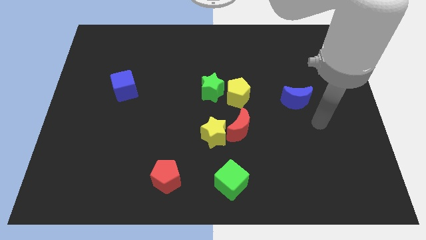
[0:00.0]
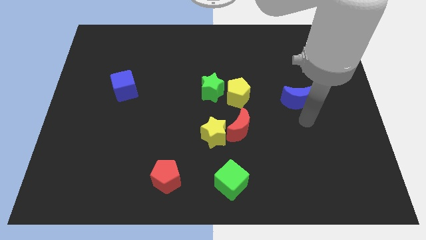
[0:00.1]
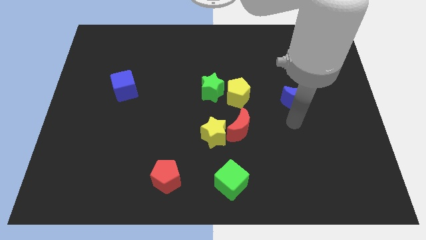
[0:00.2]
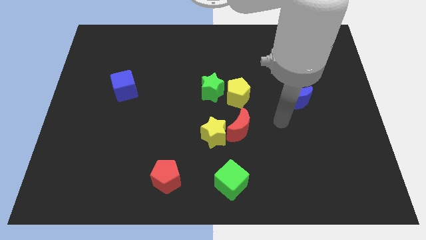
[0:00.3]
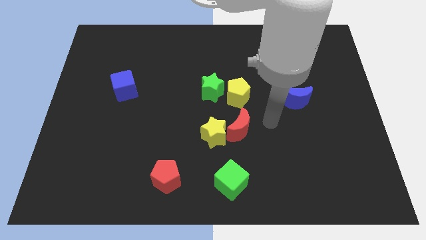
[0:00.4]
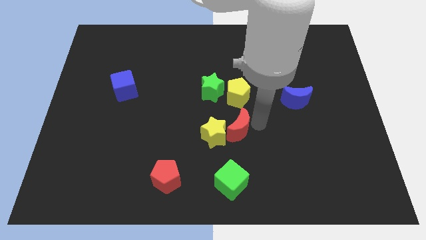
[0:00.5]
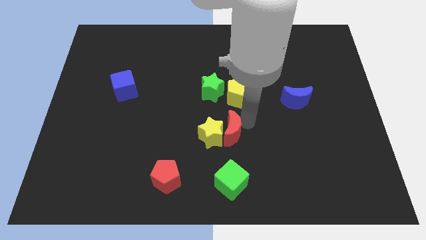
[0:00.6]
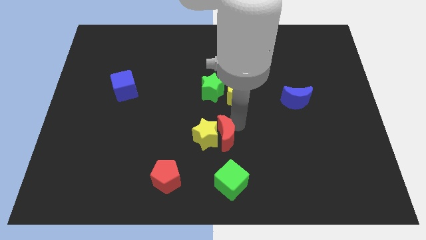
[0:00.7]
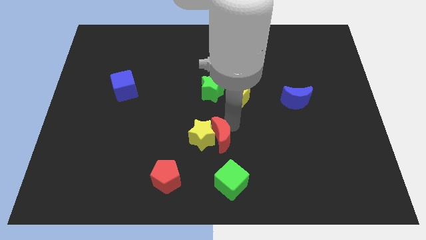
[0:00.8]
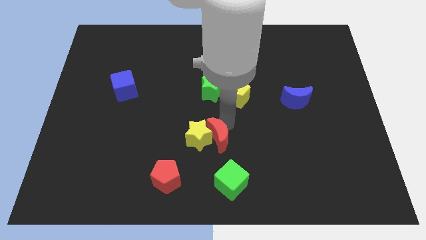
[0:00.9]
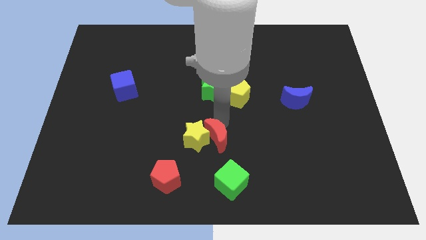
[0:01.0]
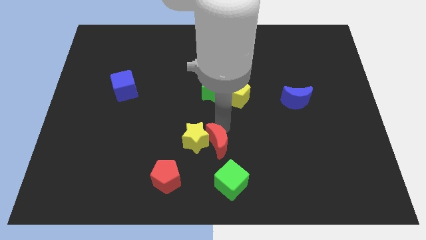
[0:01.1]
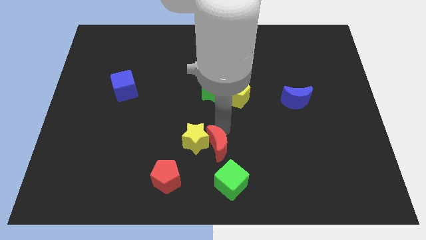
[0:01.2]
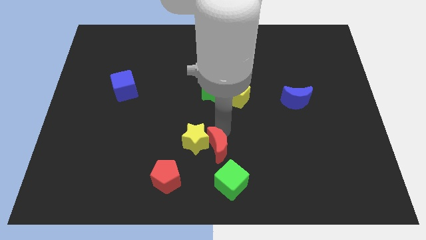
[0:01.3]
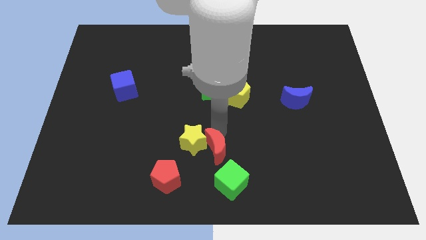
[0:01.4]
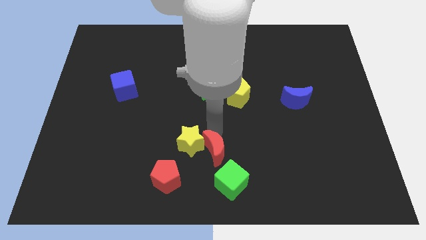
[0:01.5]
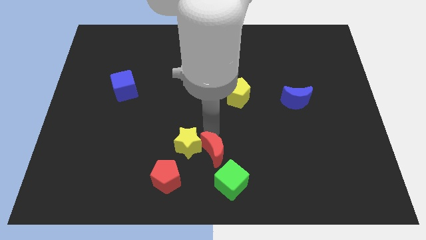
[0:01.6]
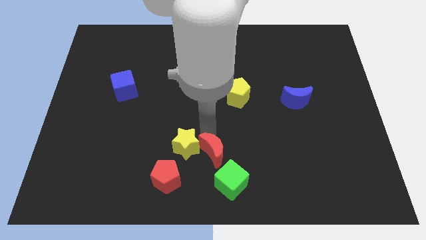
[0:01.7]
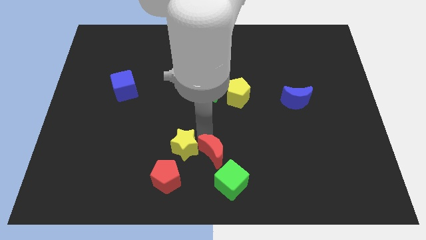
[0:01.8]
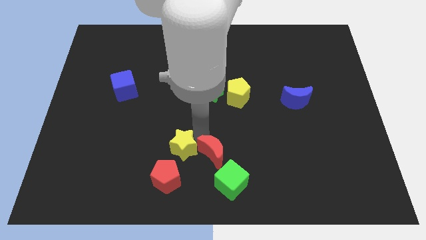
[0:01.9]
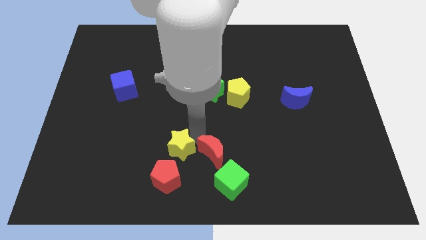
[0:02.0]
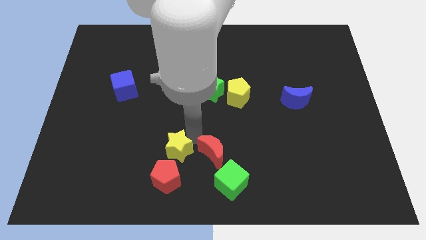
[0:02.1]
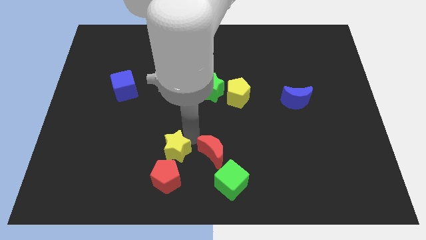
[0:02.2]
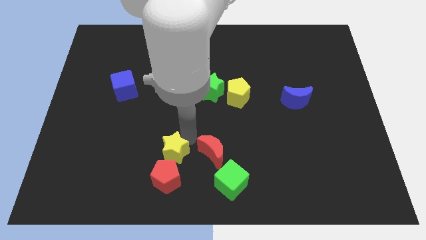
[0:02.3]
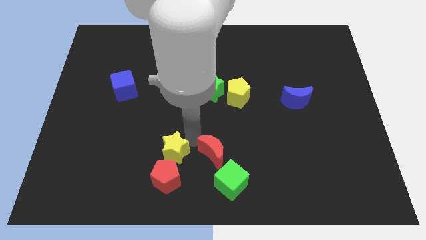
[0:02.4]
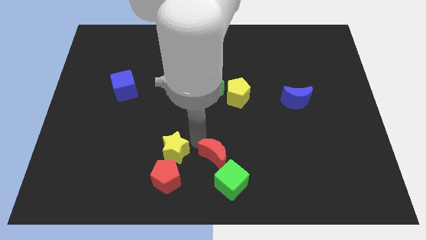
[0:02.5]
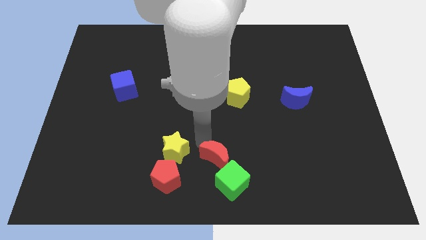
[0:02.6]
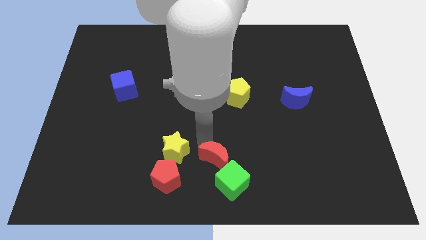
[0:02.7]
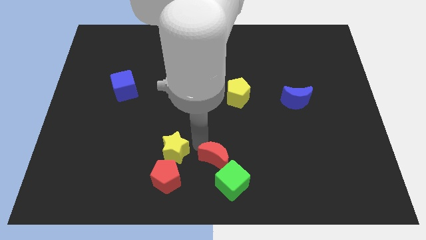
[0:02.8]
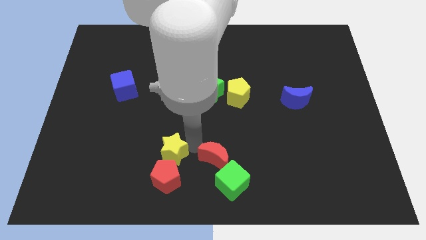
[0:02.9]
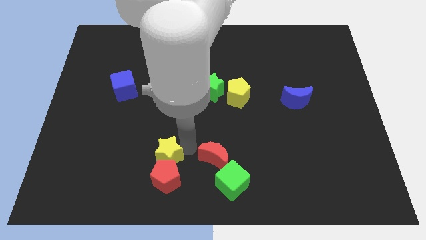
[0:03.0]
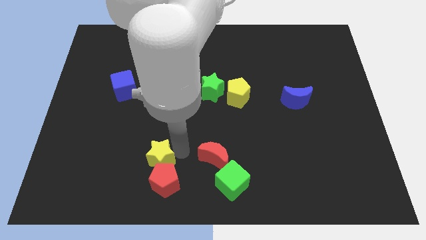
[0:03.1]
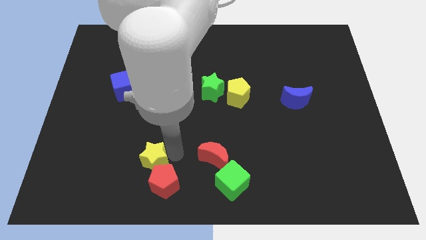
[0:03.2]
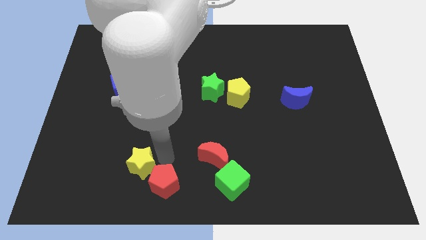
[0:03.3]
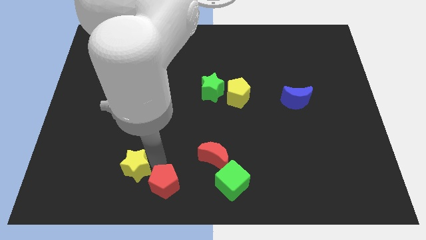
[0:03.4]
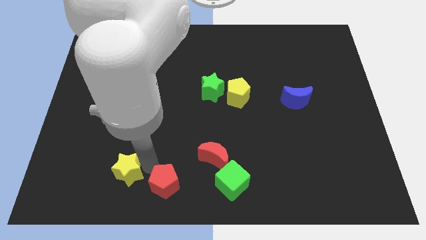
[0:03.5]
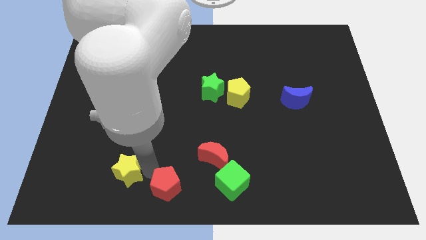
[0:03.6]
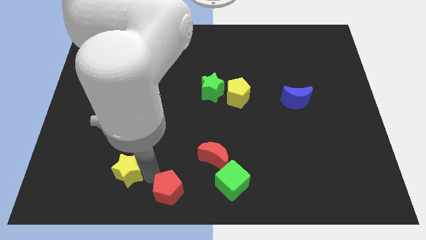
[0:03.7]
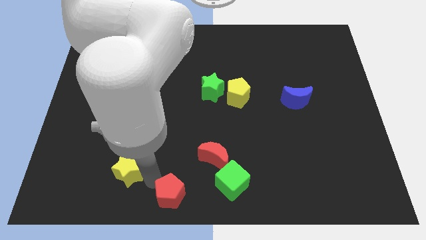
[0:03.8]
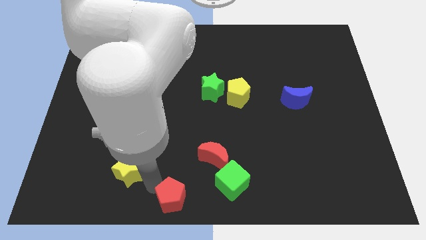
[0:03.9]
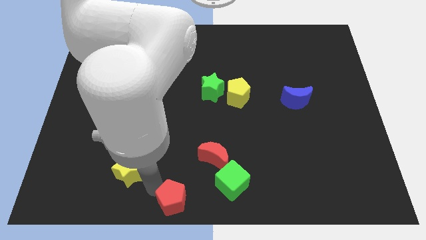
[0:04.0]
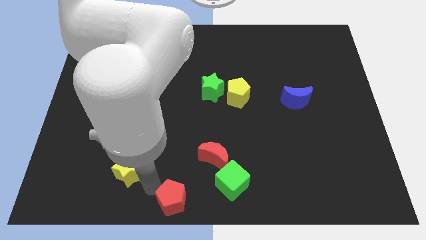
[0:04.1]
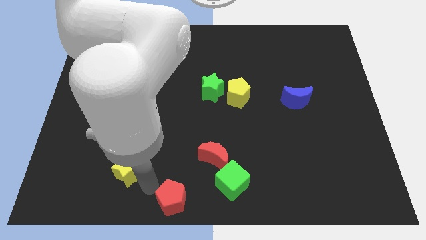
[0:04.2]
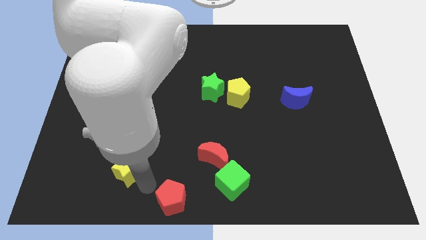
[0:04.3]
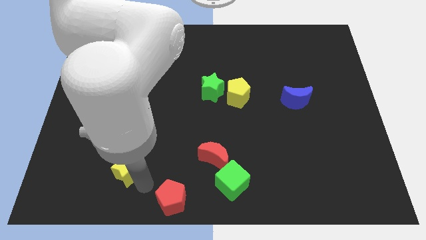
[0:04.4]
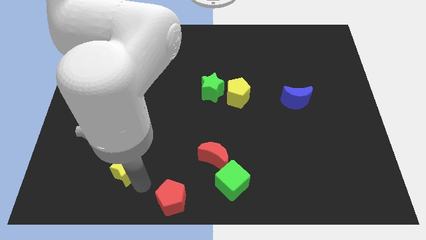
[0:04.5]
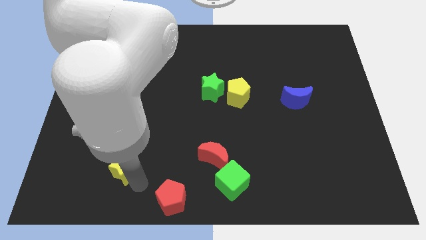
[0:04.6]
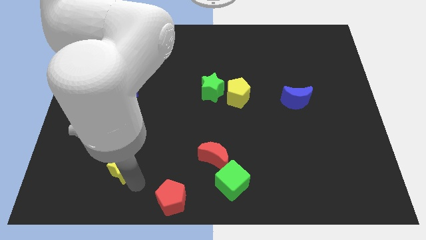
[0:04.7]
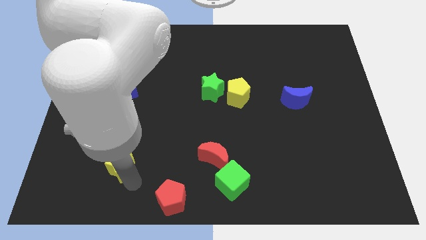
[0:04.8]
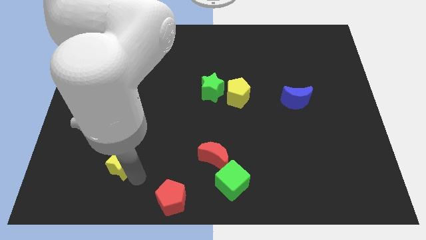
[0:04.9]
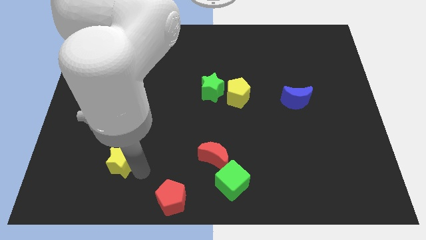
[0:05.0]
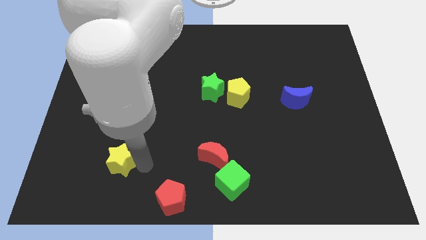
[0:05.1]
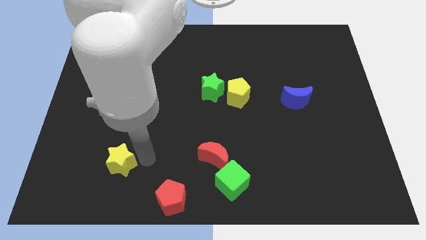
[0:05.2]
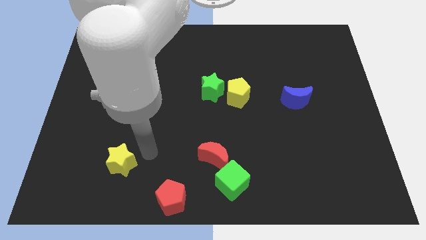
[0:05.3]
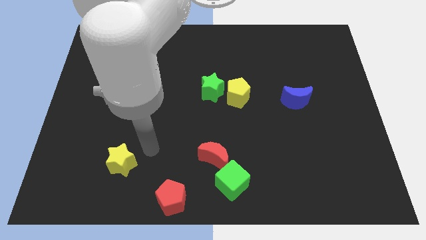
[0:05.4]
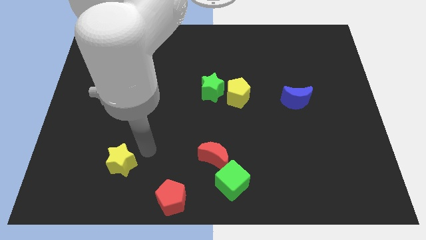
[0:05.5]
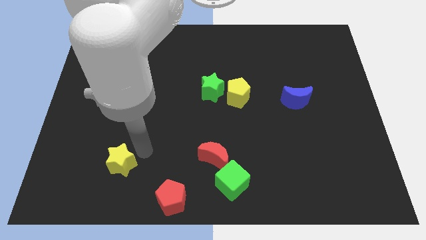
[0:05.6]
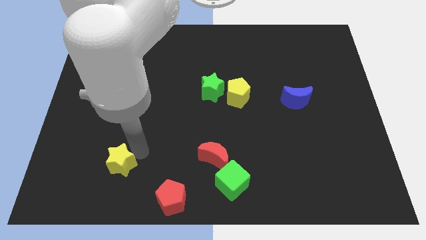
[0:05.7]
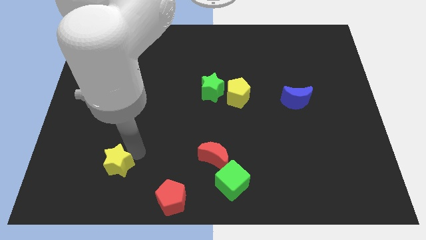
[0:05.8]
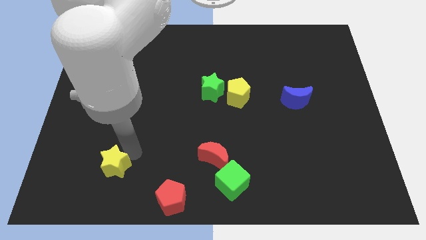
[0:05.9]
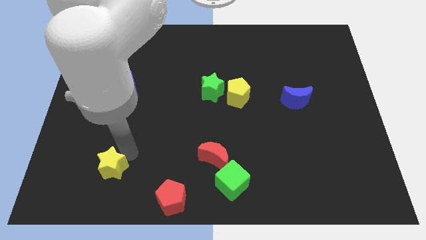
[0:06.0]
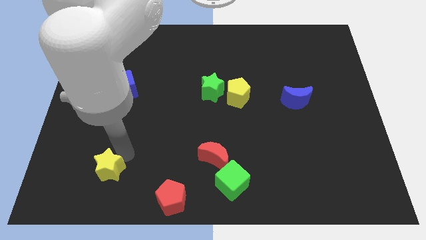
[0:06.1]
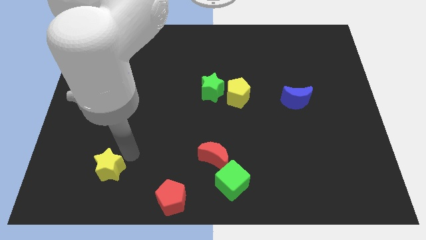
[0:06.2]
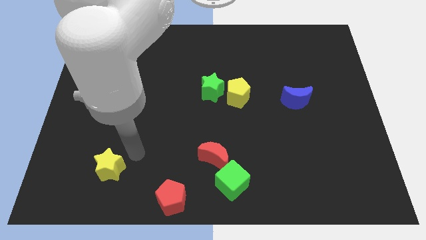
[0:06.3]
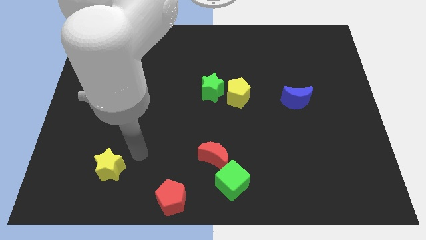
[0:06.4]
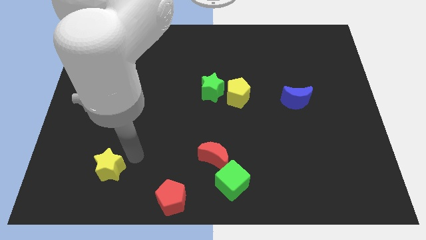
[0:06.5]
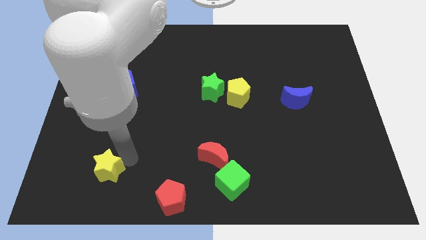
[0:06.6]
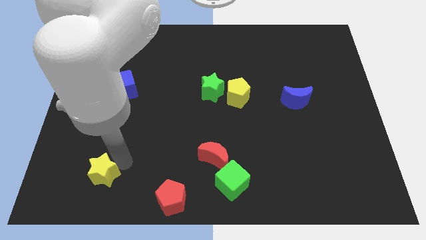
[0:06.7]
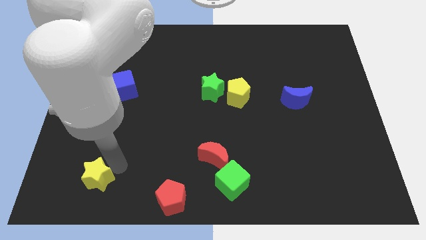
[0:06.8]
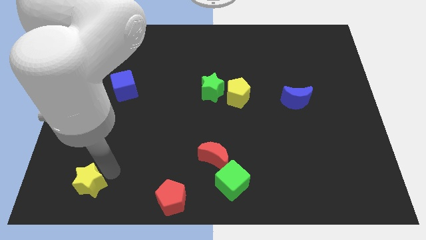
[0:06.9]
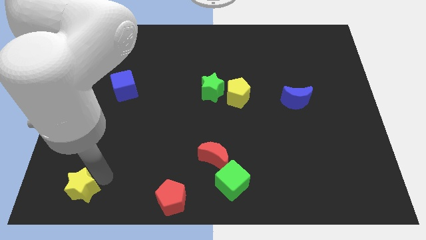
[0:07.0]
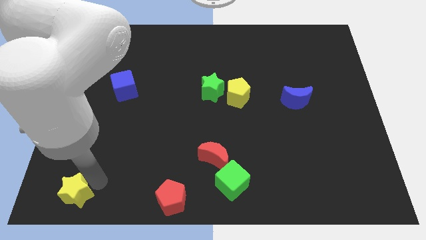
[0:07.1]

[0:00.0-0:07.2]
put the yellow star to the bottom left of the board
